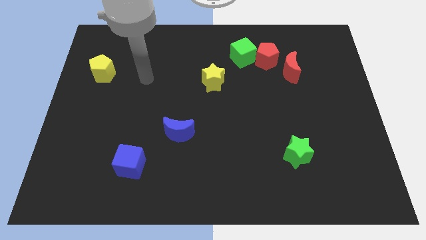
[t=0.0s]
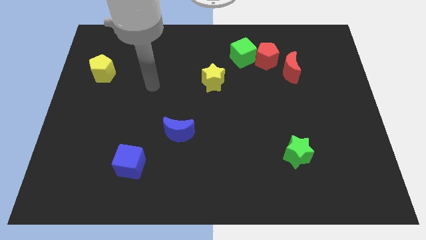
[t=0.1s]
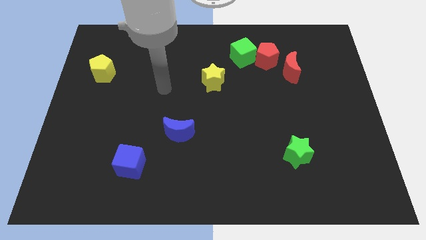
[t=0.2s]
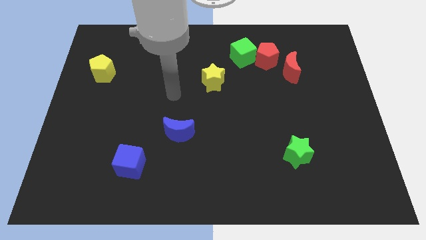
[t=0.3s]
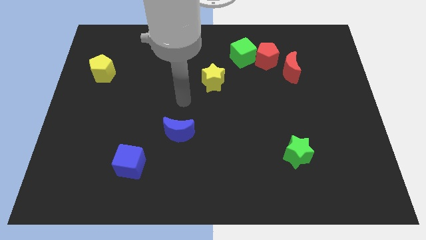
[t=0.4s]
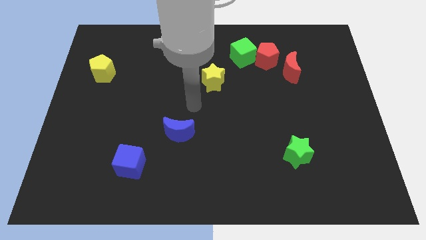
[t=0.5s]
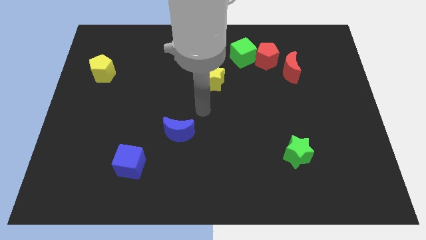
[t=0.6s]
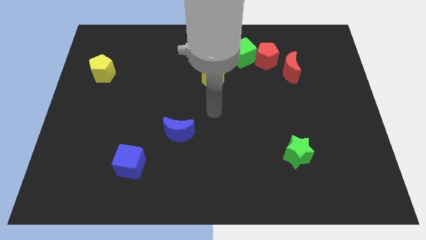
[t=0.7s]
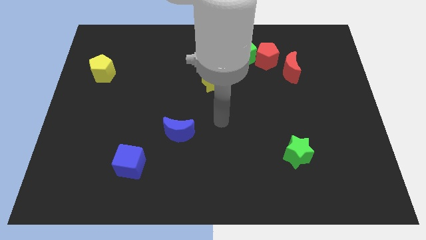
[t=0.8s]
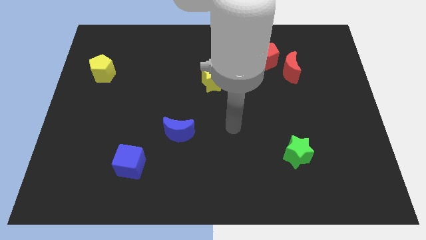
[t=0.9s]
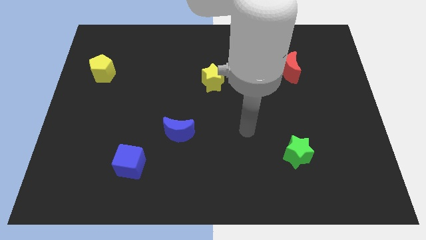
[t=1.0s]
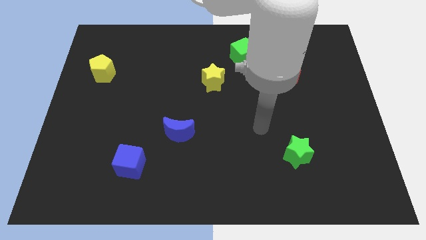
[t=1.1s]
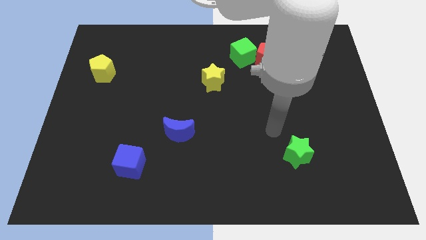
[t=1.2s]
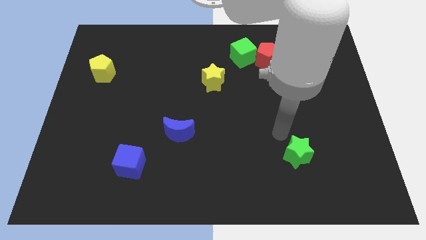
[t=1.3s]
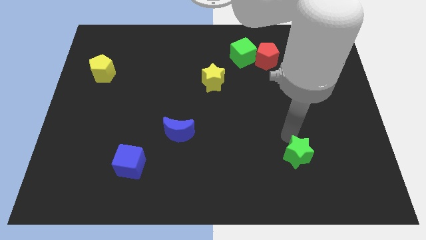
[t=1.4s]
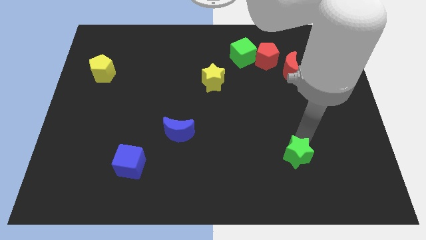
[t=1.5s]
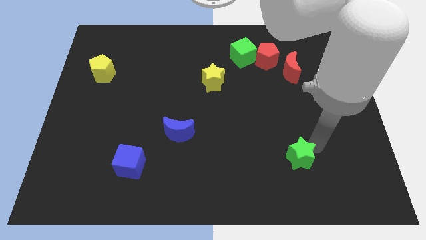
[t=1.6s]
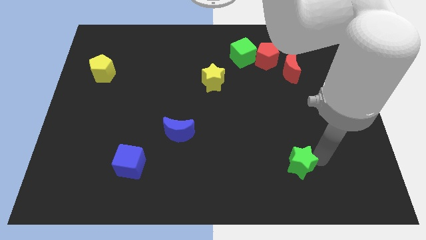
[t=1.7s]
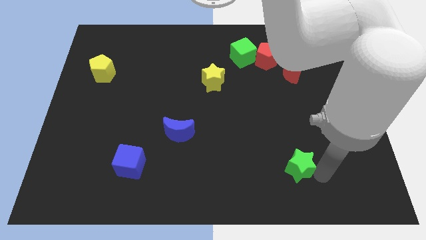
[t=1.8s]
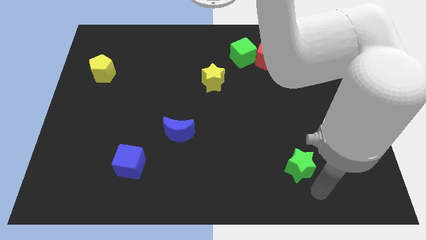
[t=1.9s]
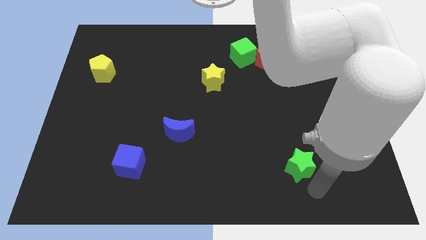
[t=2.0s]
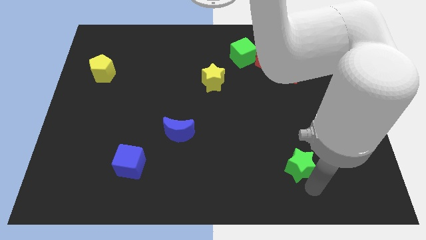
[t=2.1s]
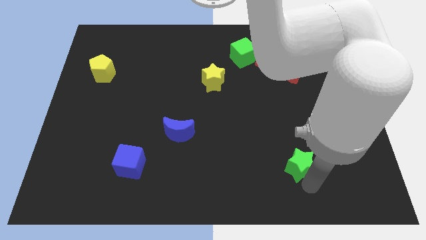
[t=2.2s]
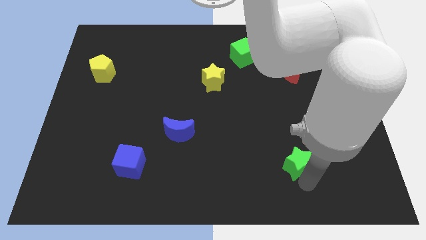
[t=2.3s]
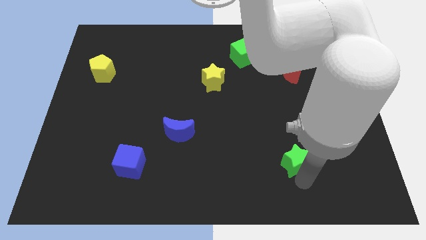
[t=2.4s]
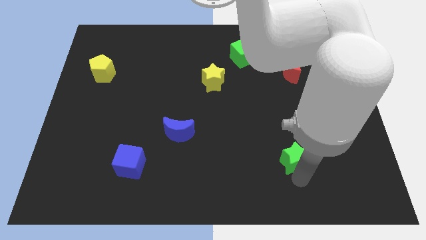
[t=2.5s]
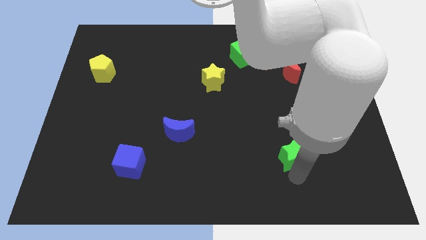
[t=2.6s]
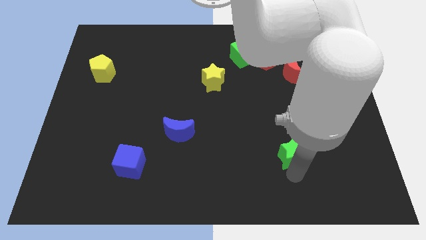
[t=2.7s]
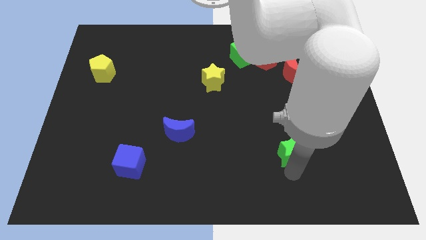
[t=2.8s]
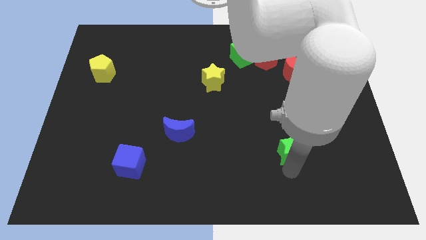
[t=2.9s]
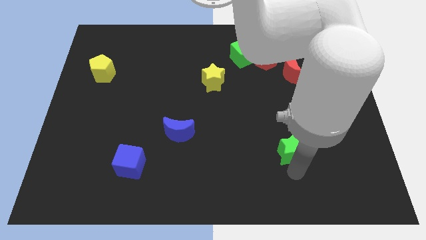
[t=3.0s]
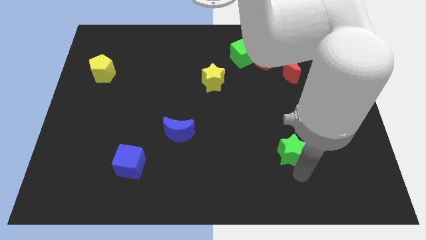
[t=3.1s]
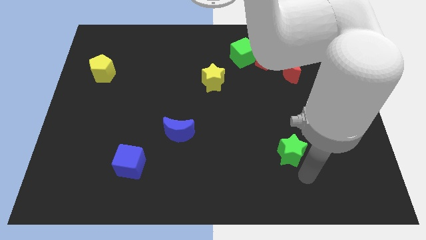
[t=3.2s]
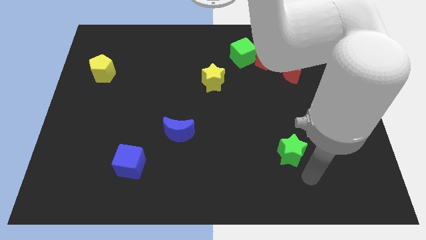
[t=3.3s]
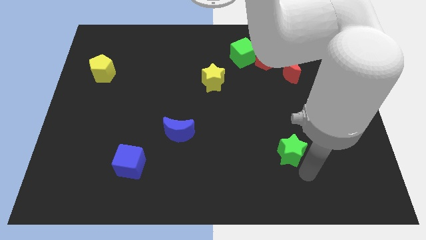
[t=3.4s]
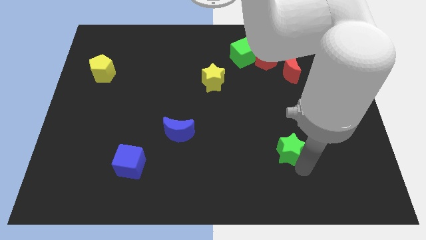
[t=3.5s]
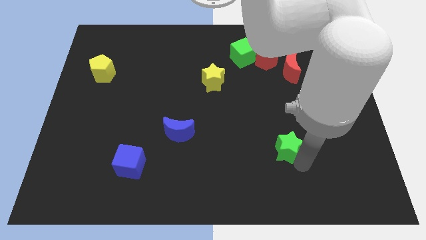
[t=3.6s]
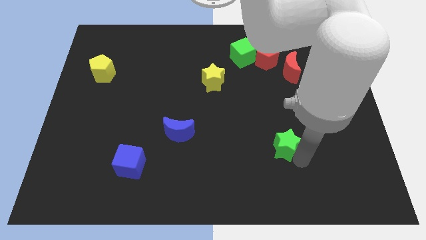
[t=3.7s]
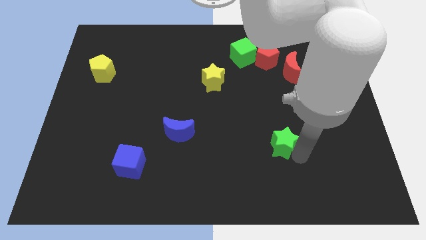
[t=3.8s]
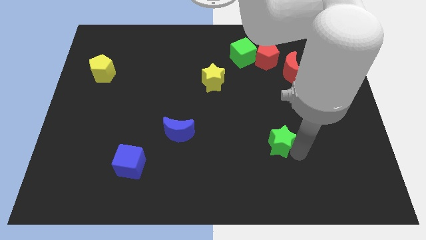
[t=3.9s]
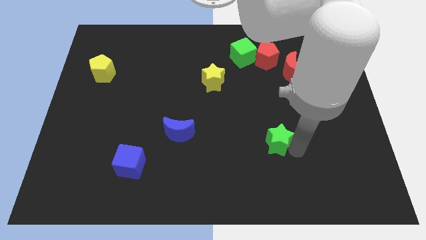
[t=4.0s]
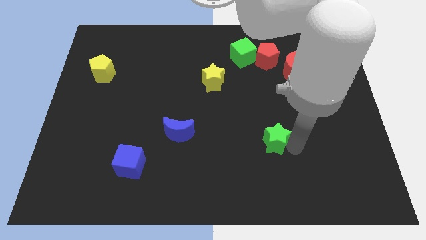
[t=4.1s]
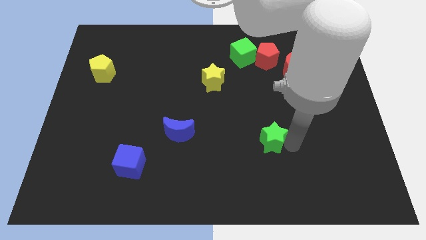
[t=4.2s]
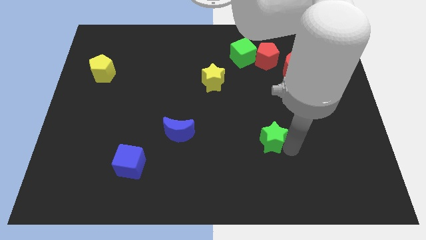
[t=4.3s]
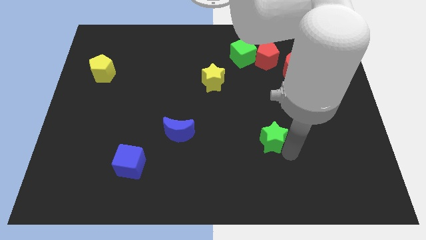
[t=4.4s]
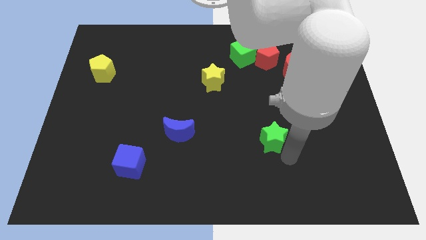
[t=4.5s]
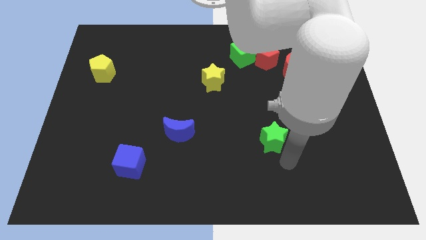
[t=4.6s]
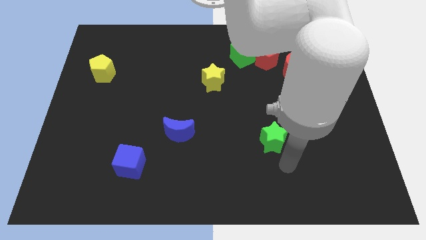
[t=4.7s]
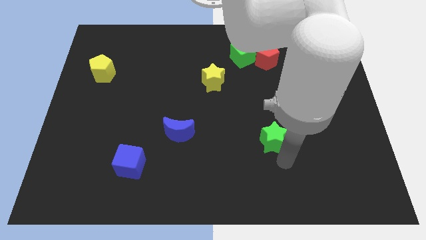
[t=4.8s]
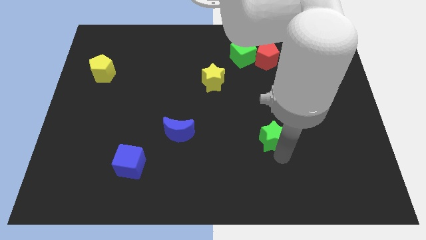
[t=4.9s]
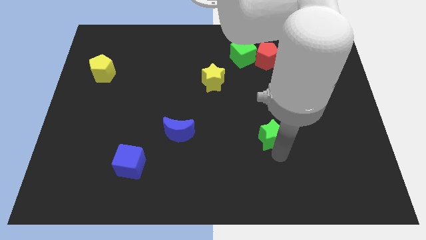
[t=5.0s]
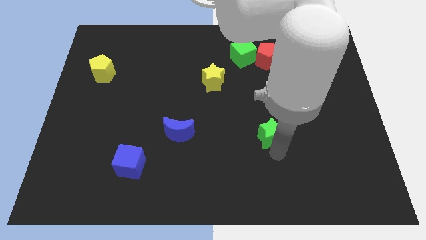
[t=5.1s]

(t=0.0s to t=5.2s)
slide the green star somewhat up and to the left diagonally

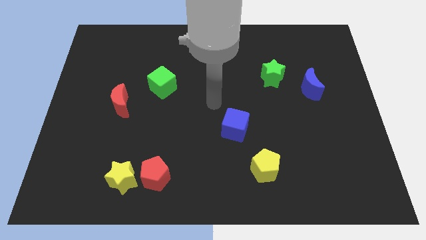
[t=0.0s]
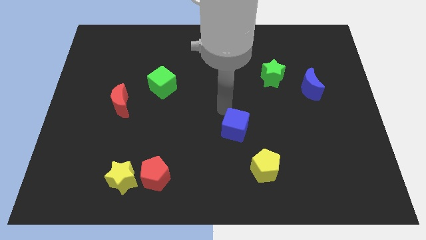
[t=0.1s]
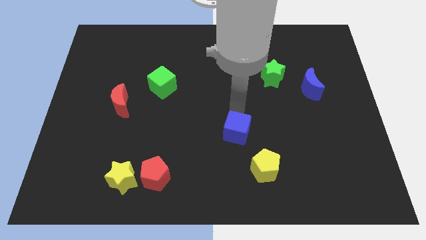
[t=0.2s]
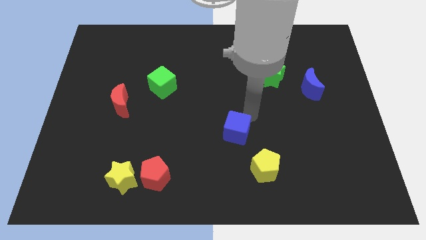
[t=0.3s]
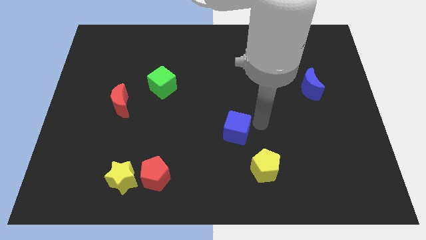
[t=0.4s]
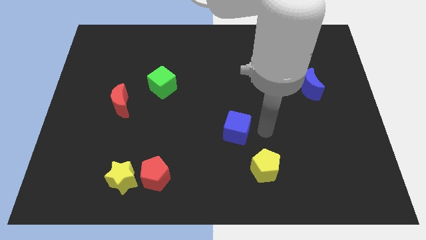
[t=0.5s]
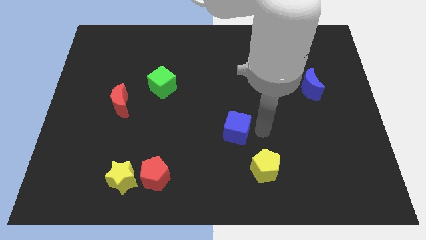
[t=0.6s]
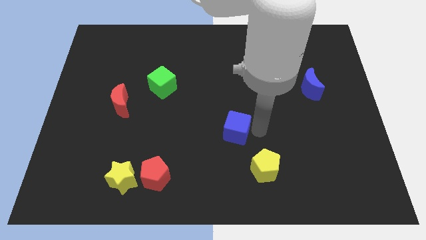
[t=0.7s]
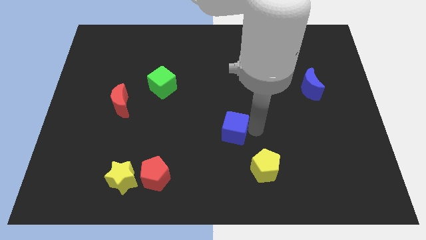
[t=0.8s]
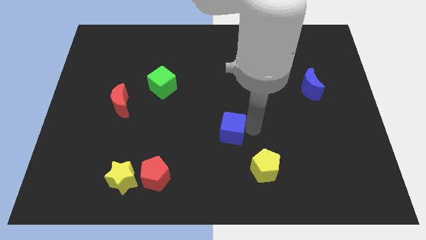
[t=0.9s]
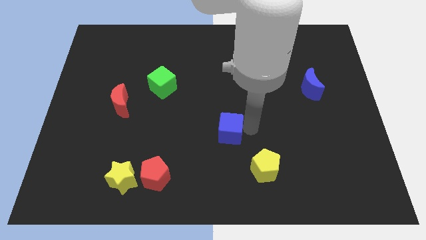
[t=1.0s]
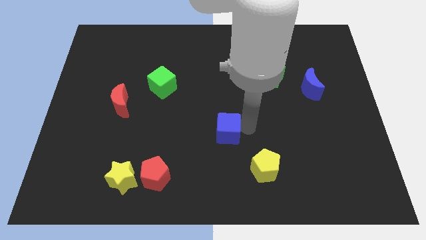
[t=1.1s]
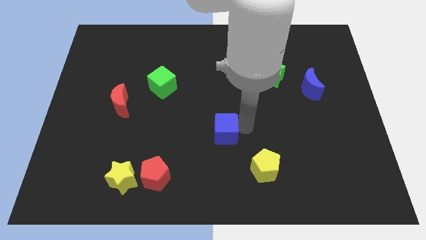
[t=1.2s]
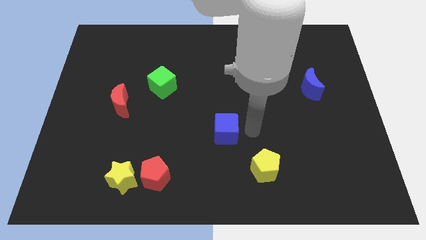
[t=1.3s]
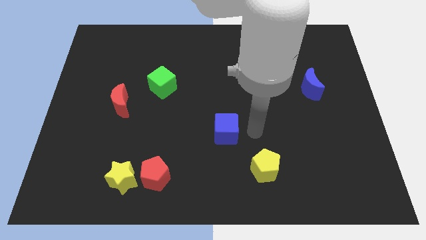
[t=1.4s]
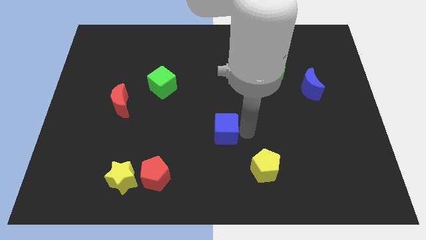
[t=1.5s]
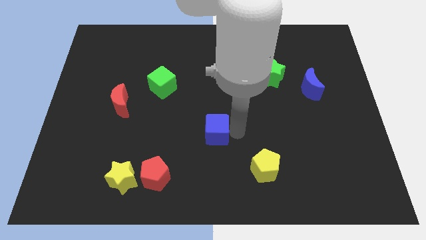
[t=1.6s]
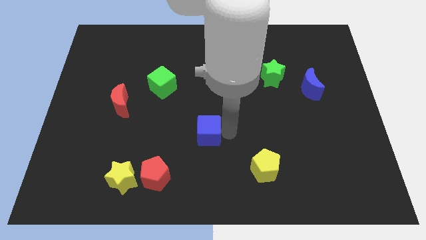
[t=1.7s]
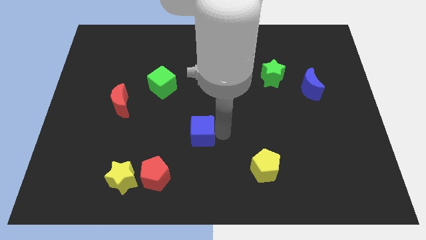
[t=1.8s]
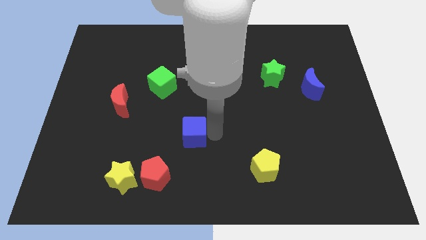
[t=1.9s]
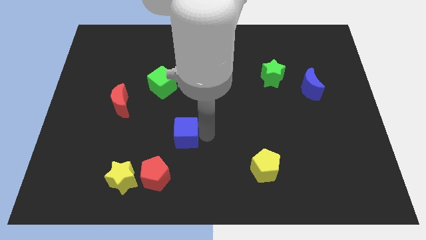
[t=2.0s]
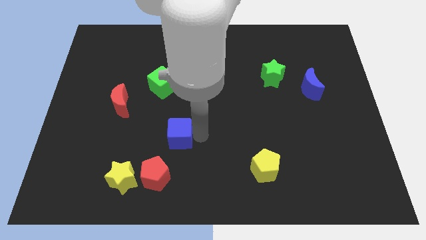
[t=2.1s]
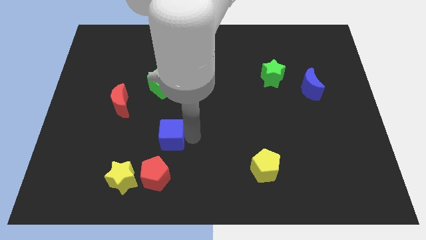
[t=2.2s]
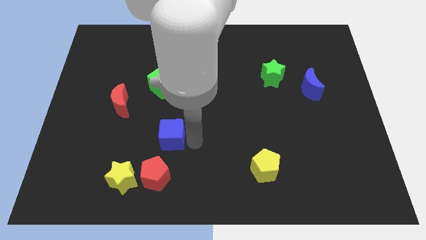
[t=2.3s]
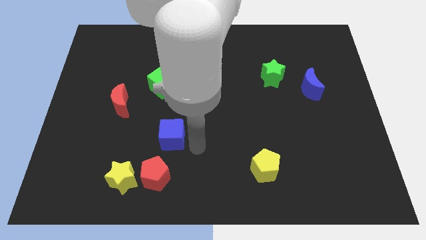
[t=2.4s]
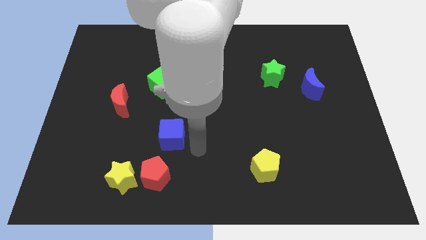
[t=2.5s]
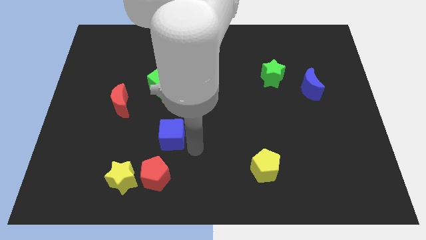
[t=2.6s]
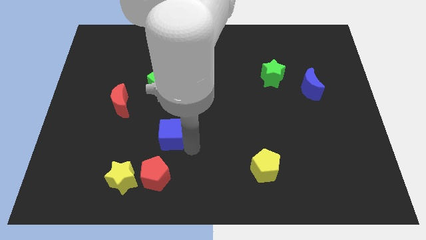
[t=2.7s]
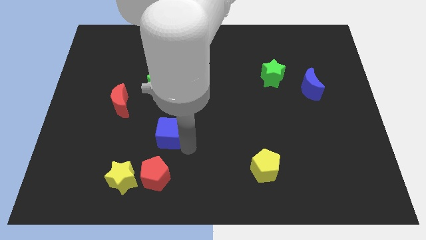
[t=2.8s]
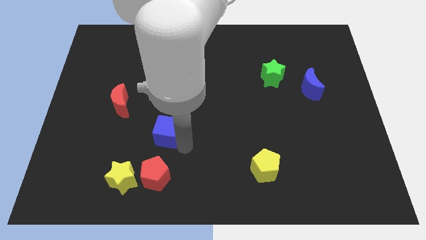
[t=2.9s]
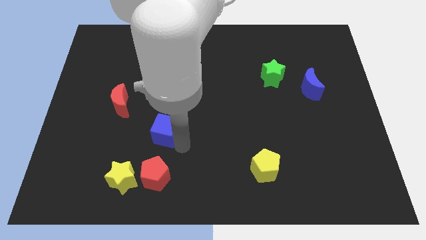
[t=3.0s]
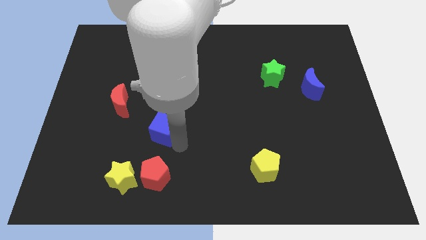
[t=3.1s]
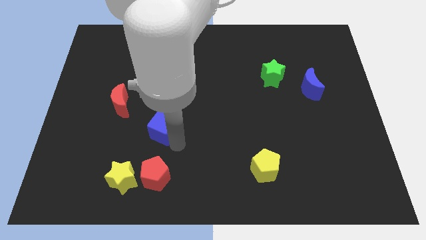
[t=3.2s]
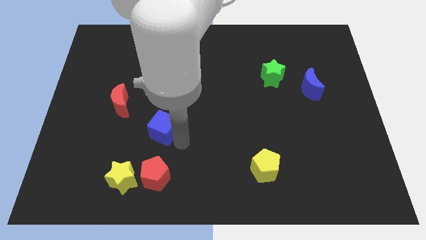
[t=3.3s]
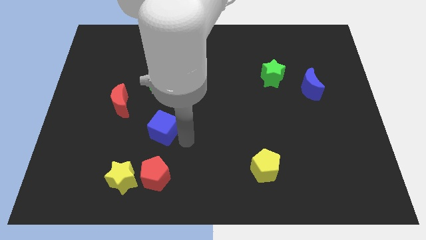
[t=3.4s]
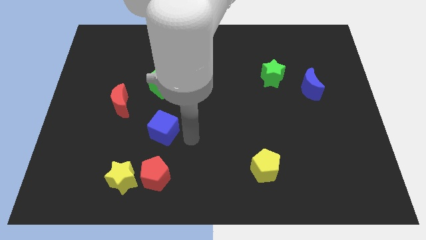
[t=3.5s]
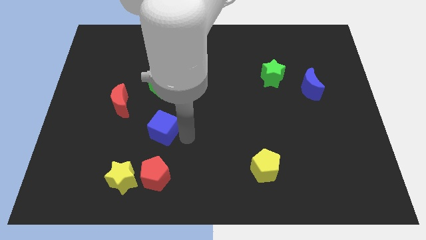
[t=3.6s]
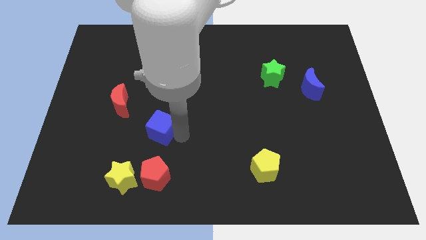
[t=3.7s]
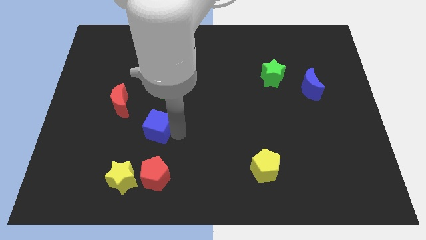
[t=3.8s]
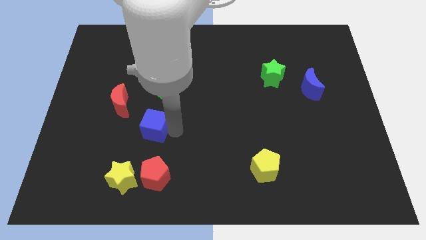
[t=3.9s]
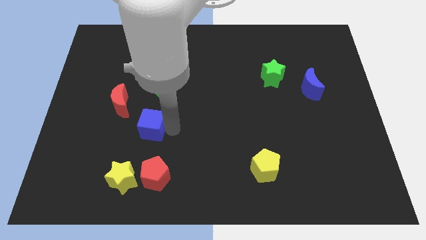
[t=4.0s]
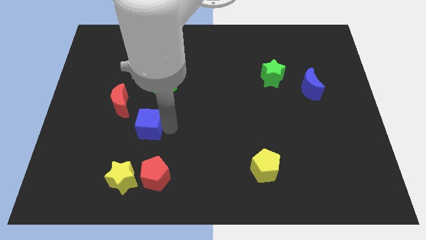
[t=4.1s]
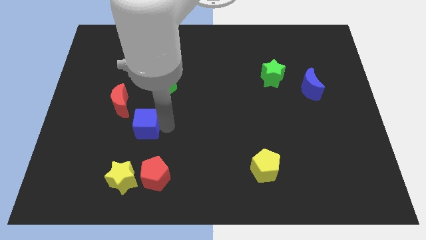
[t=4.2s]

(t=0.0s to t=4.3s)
push the blue cube left
